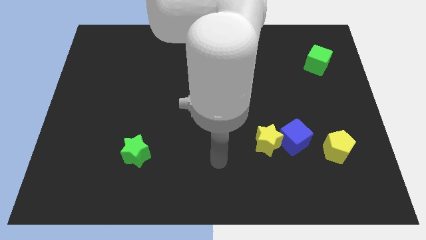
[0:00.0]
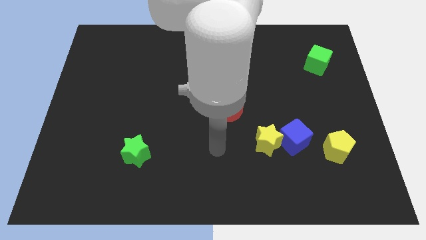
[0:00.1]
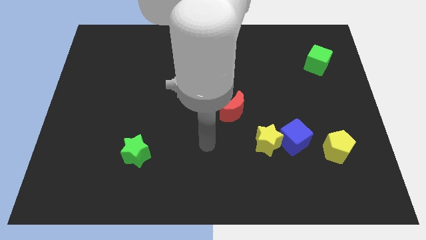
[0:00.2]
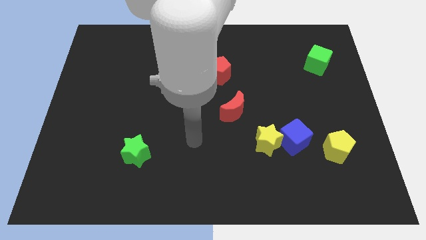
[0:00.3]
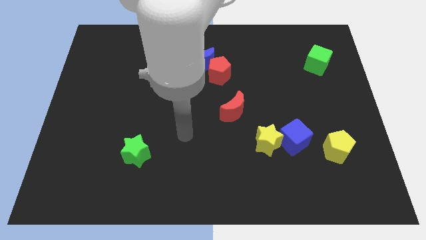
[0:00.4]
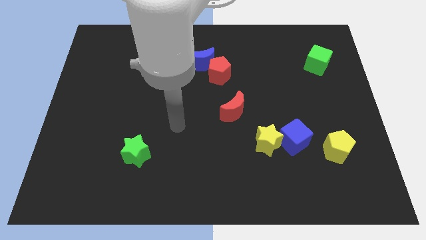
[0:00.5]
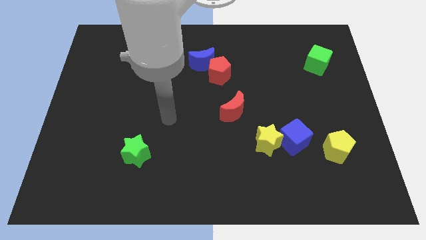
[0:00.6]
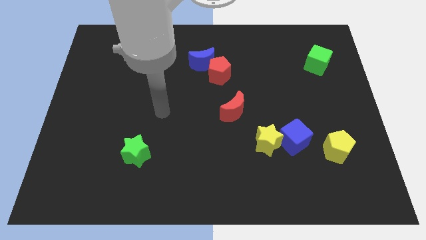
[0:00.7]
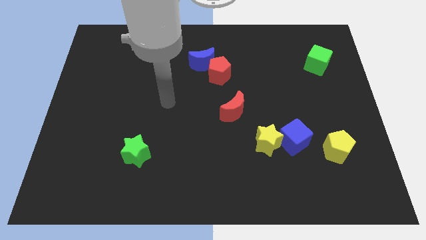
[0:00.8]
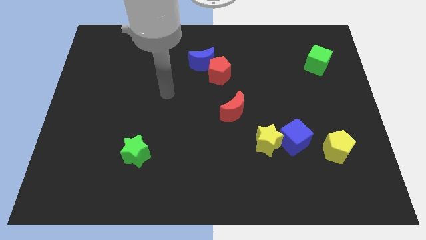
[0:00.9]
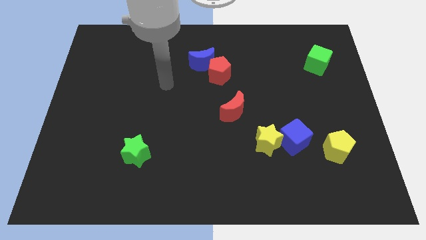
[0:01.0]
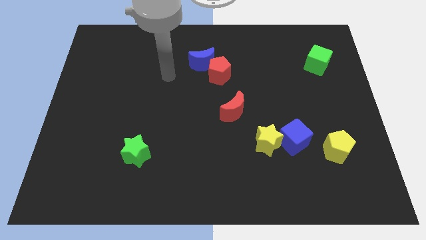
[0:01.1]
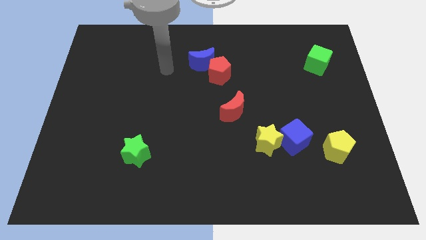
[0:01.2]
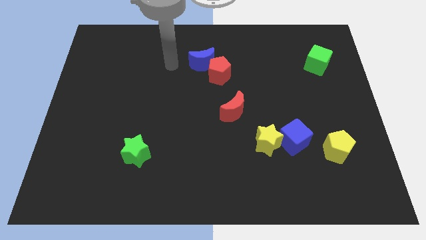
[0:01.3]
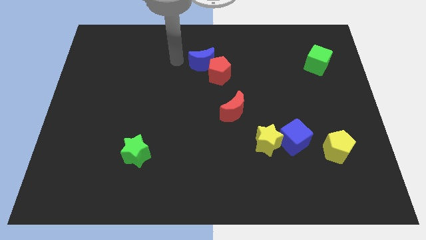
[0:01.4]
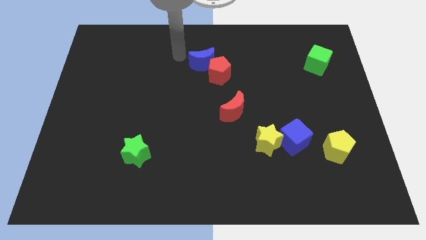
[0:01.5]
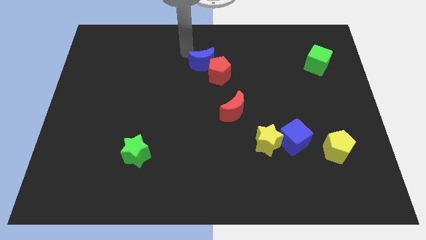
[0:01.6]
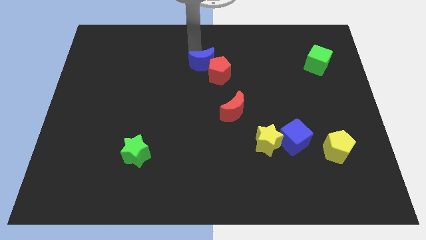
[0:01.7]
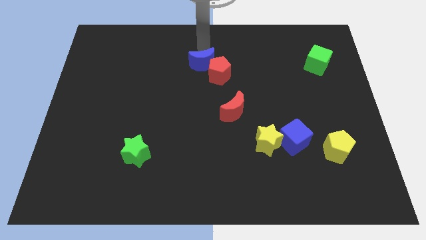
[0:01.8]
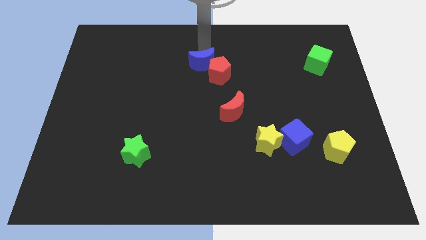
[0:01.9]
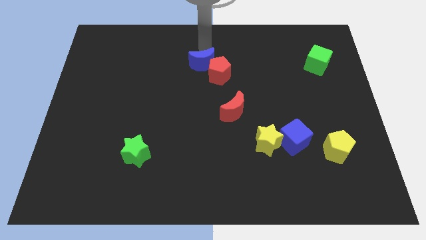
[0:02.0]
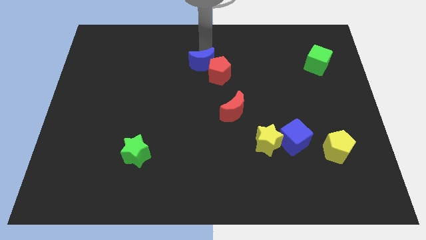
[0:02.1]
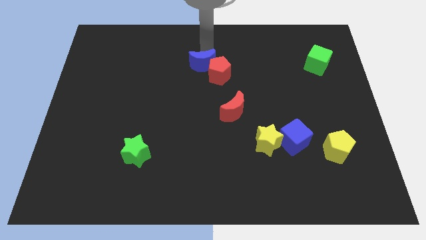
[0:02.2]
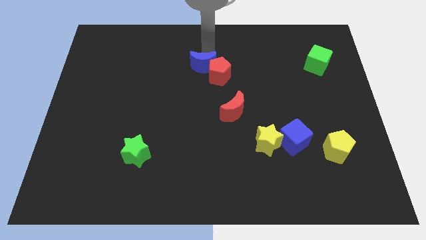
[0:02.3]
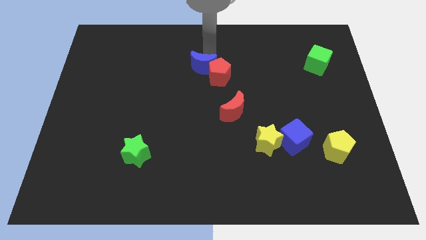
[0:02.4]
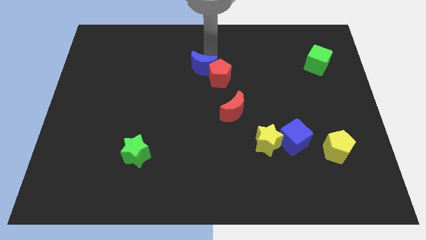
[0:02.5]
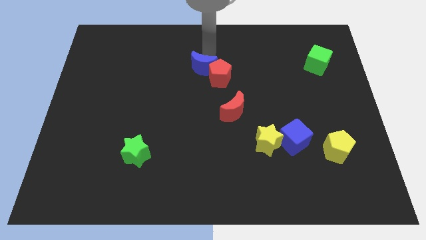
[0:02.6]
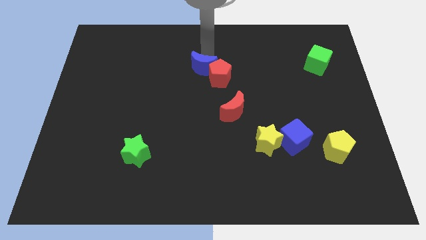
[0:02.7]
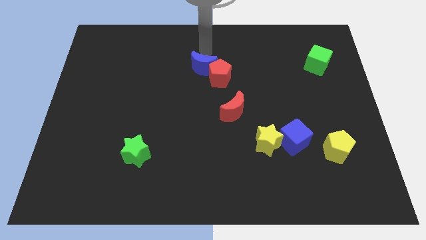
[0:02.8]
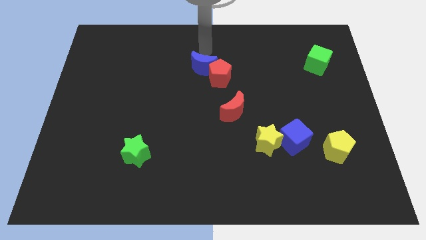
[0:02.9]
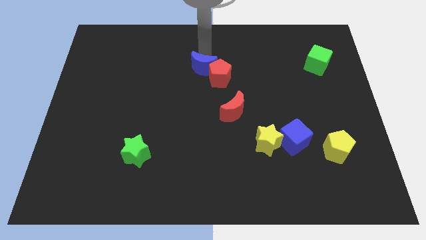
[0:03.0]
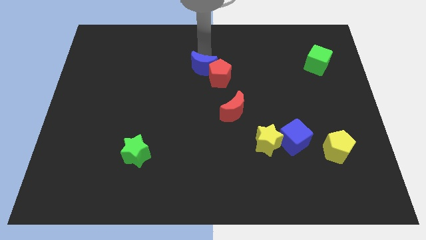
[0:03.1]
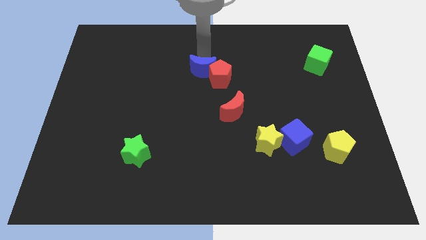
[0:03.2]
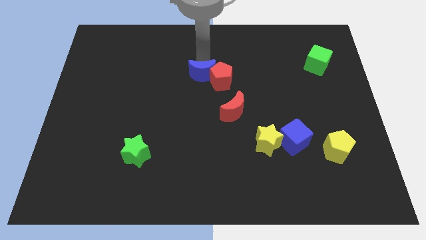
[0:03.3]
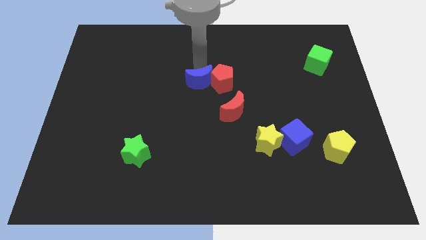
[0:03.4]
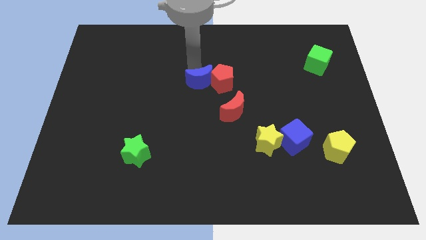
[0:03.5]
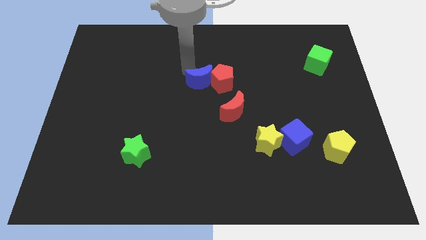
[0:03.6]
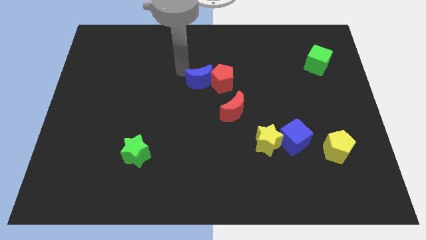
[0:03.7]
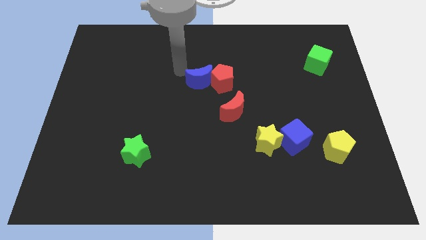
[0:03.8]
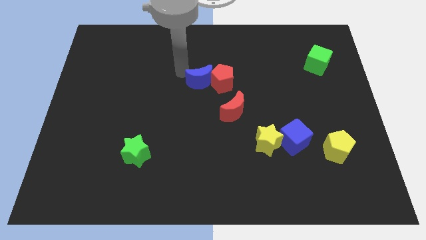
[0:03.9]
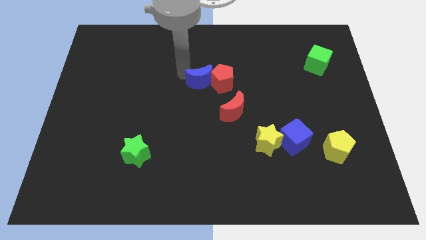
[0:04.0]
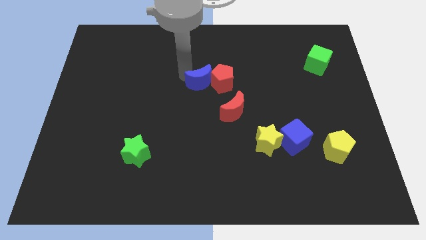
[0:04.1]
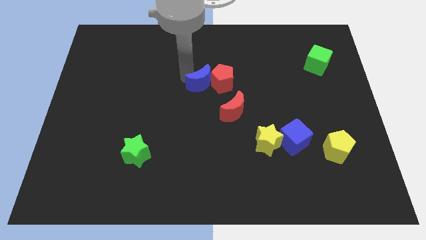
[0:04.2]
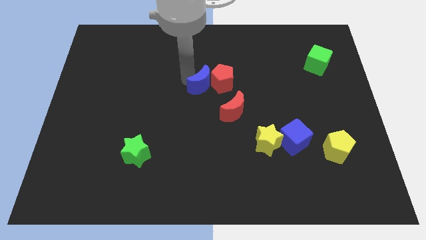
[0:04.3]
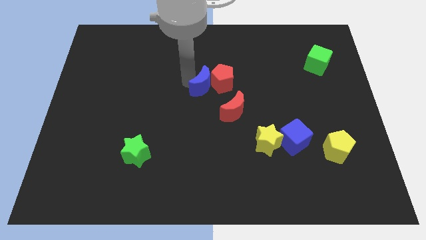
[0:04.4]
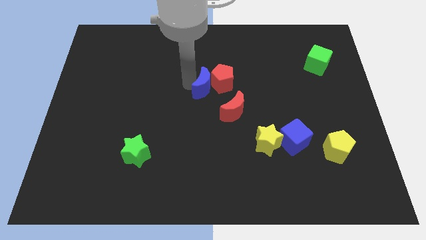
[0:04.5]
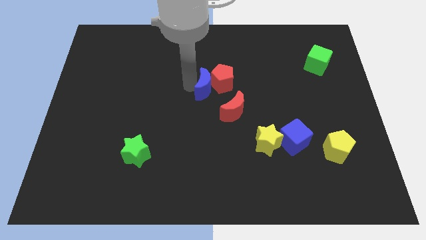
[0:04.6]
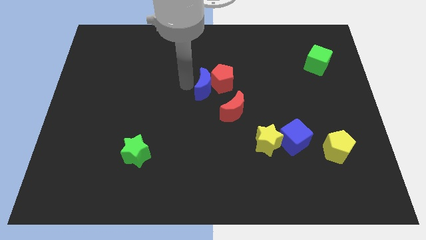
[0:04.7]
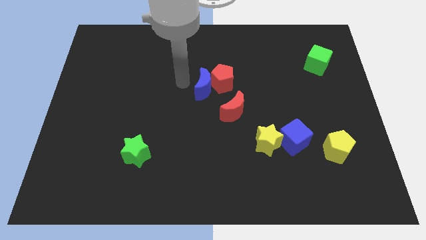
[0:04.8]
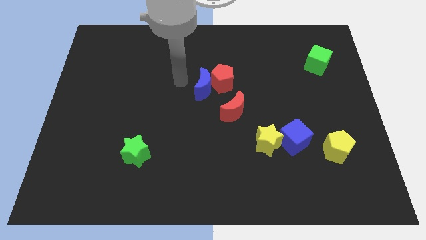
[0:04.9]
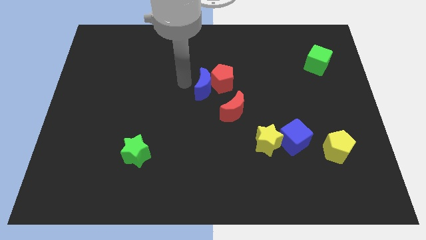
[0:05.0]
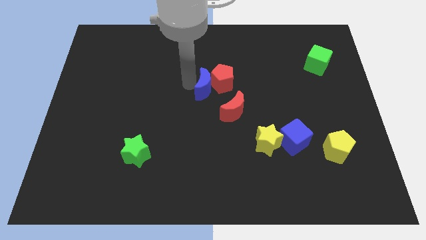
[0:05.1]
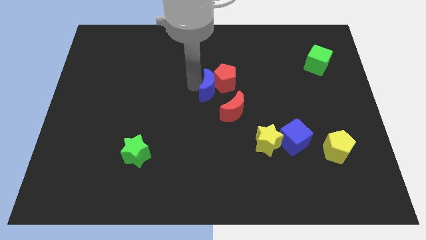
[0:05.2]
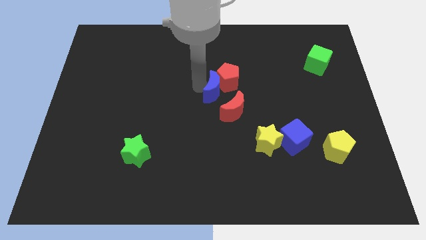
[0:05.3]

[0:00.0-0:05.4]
slightly slide the blue moon diagonally down and right

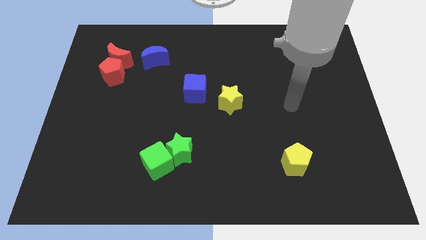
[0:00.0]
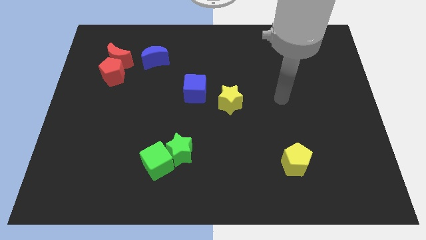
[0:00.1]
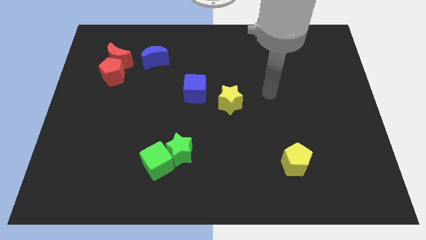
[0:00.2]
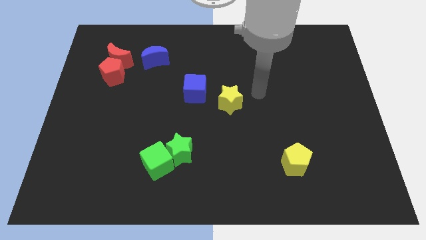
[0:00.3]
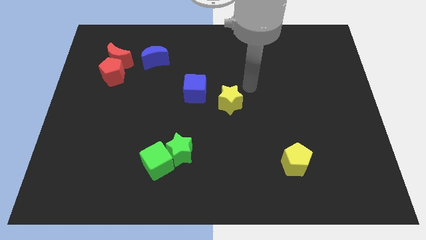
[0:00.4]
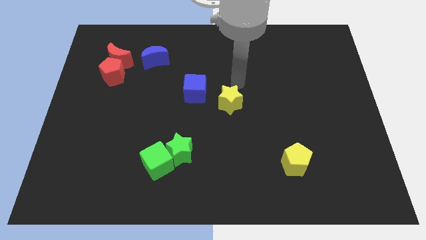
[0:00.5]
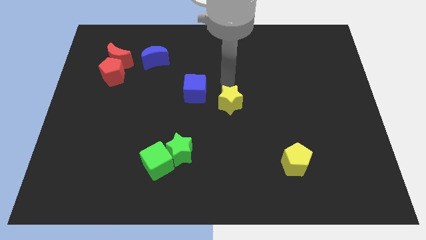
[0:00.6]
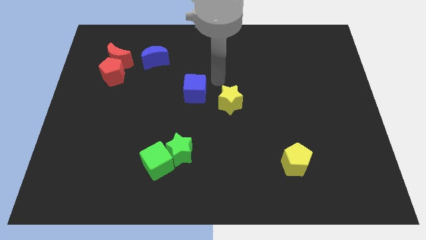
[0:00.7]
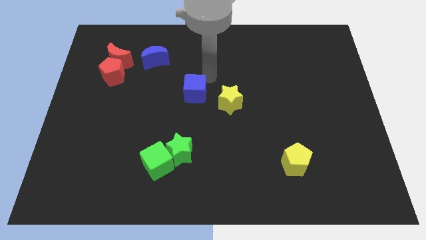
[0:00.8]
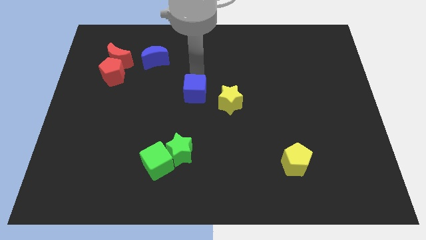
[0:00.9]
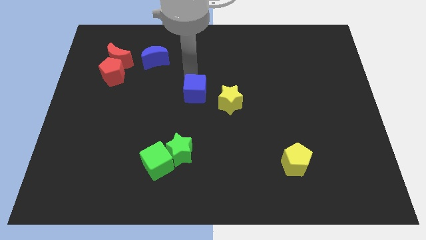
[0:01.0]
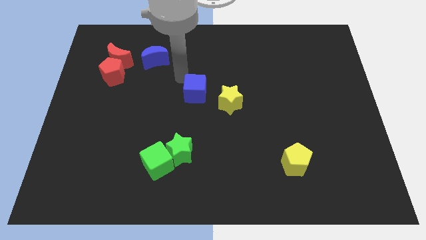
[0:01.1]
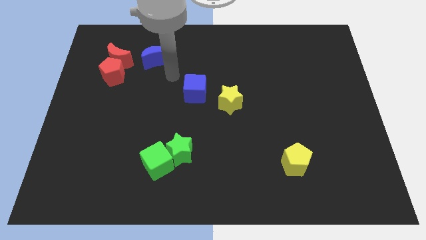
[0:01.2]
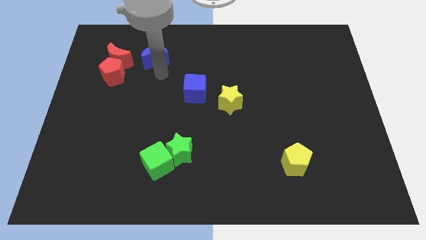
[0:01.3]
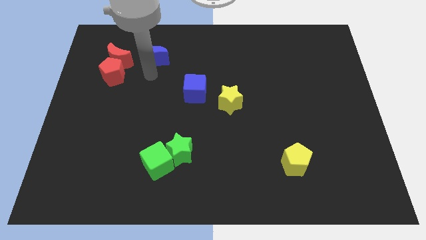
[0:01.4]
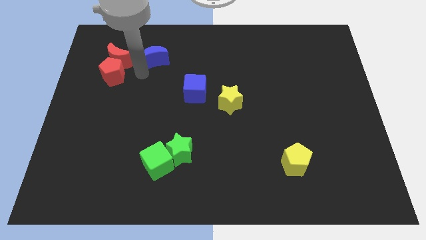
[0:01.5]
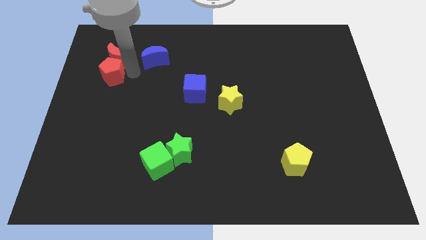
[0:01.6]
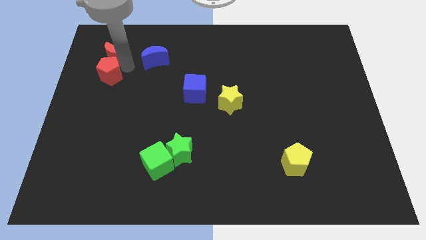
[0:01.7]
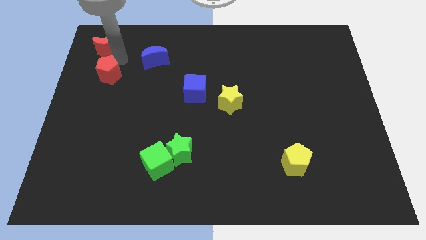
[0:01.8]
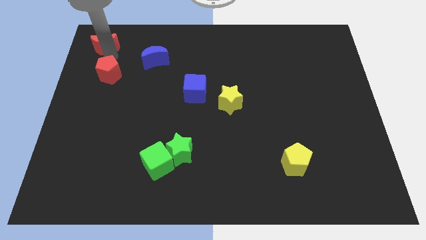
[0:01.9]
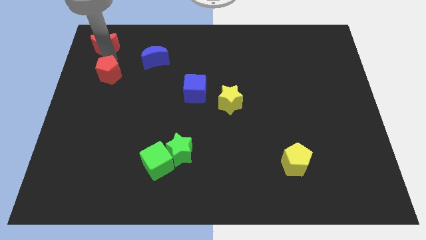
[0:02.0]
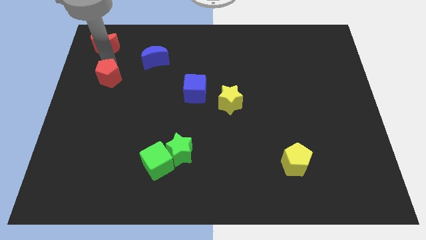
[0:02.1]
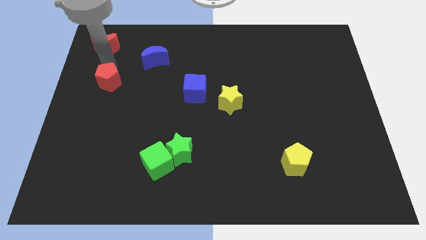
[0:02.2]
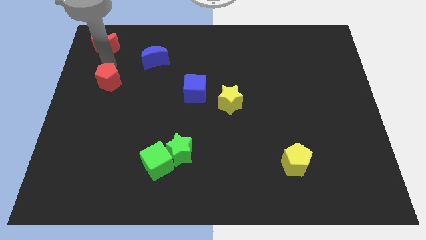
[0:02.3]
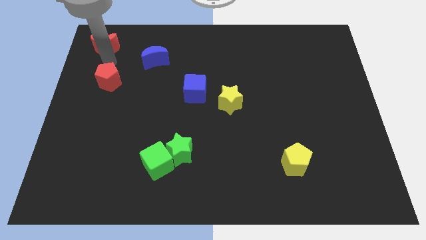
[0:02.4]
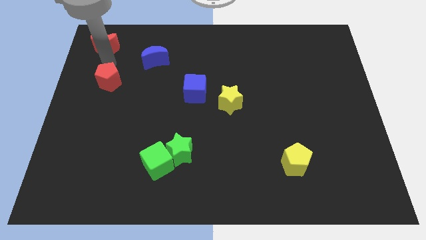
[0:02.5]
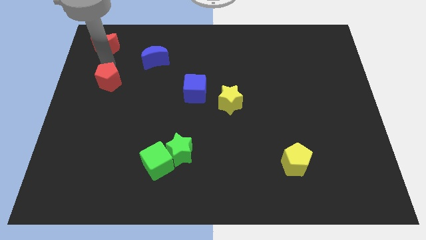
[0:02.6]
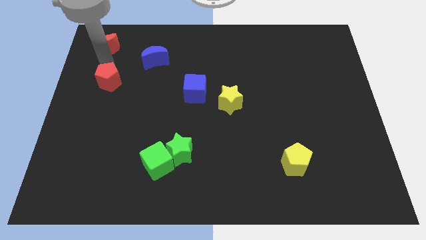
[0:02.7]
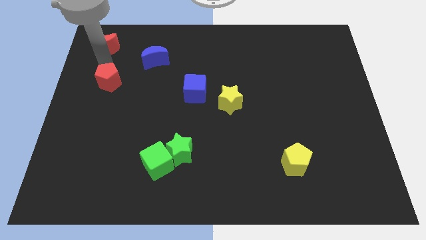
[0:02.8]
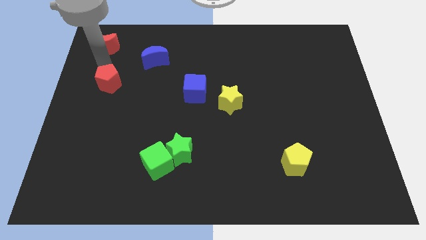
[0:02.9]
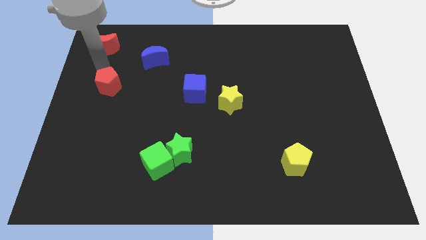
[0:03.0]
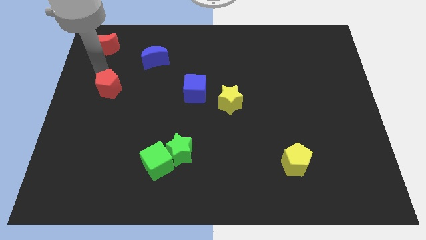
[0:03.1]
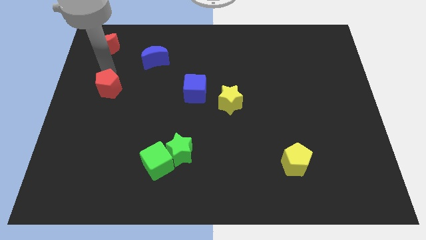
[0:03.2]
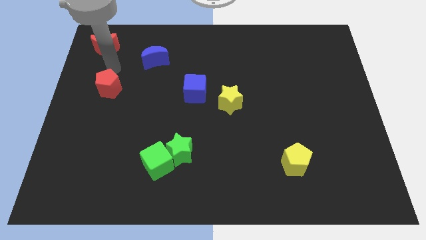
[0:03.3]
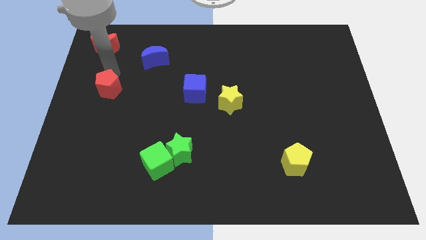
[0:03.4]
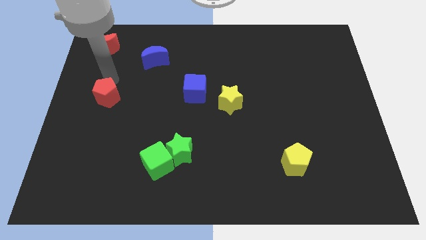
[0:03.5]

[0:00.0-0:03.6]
slide the red pentagon somewhat downwards
